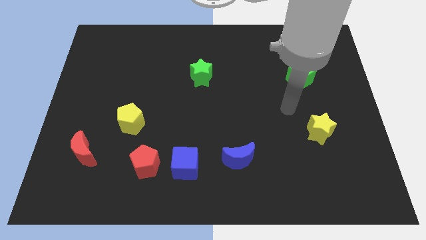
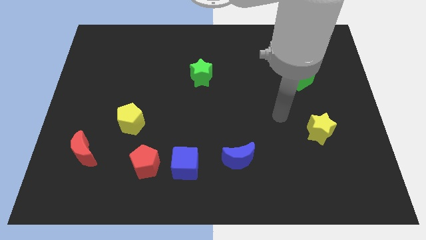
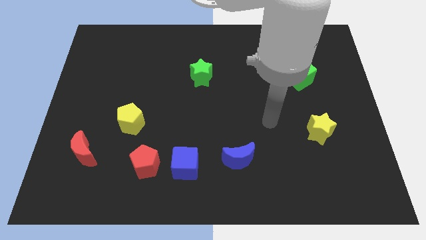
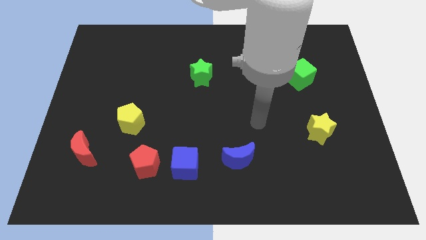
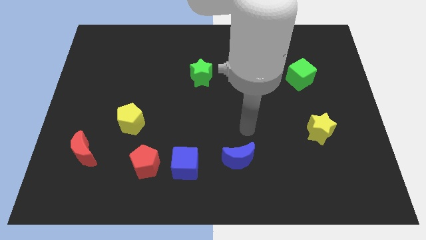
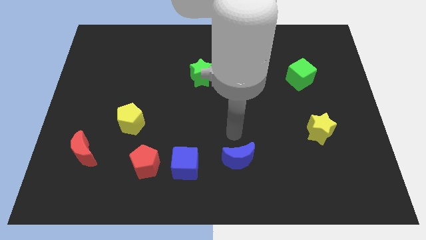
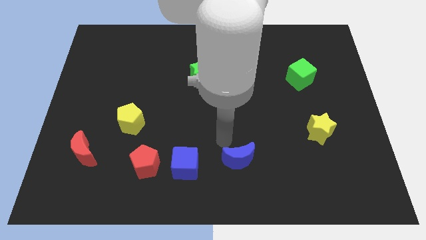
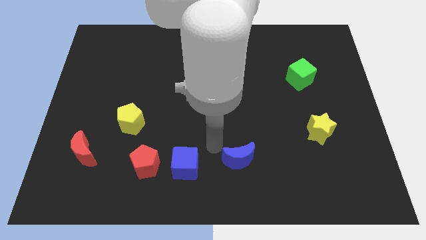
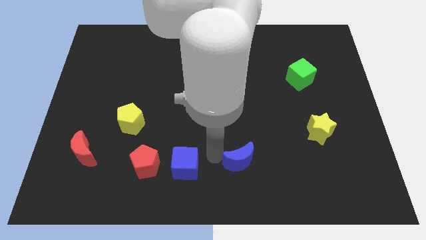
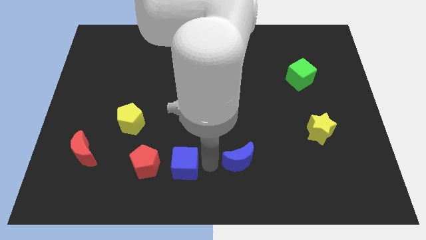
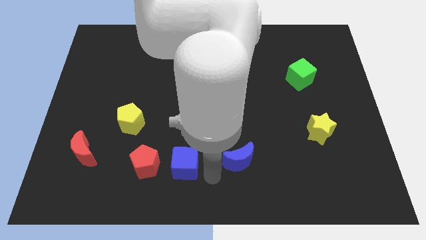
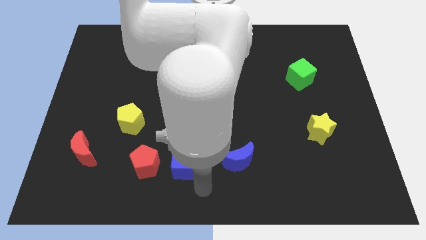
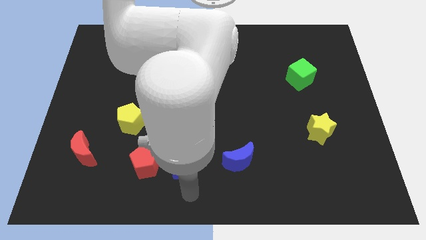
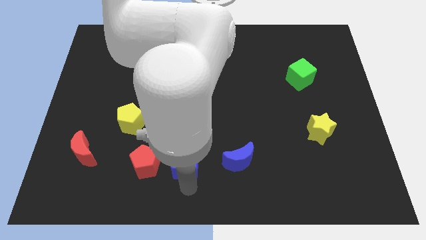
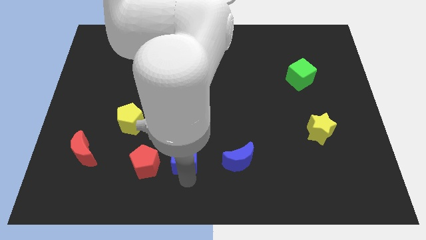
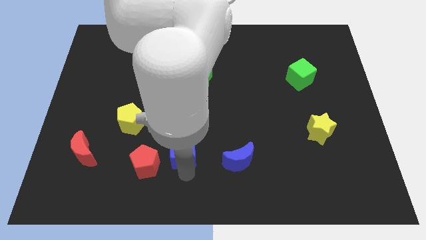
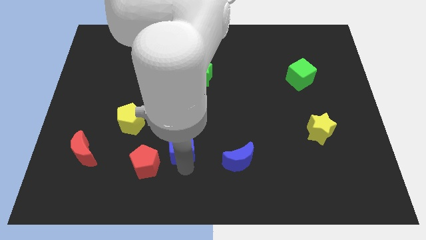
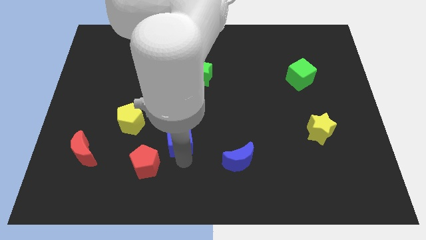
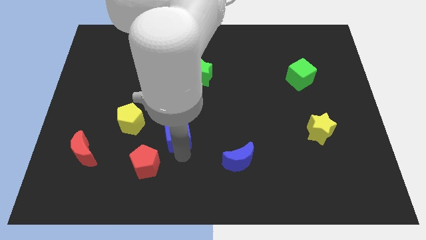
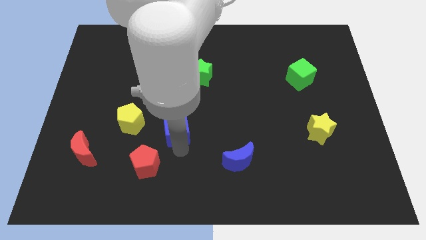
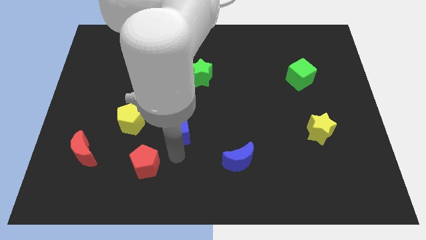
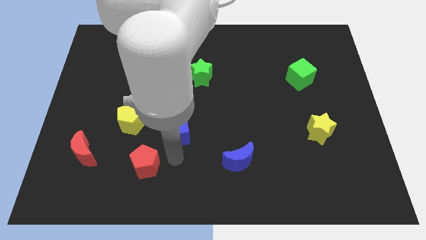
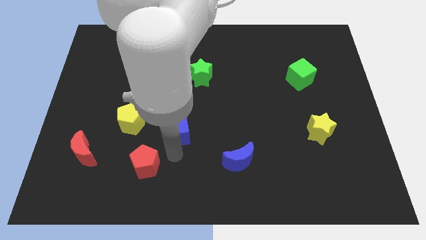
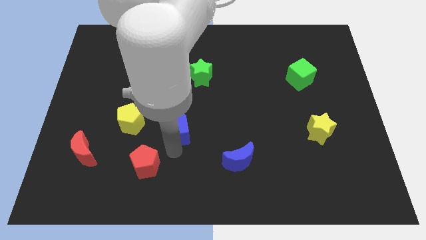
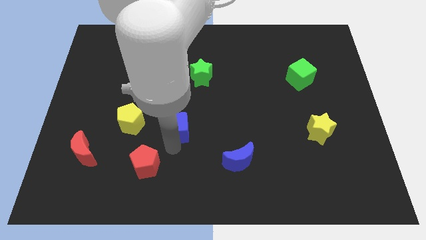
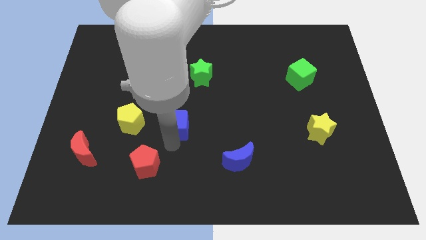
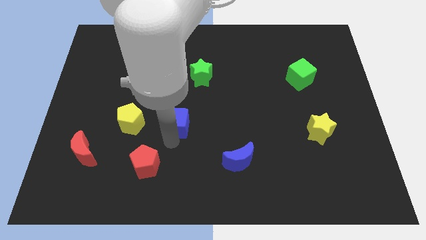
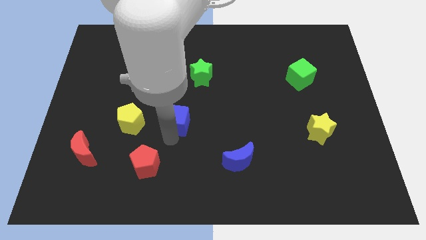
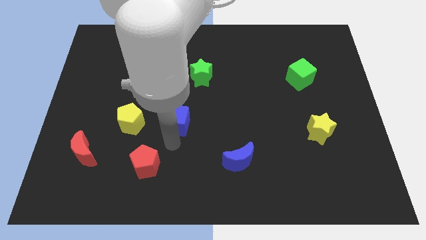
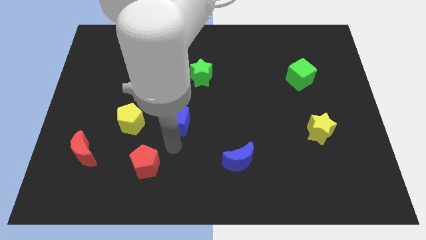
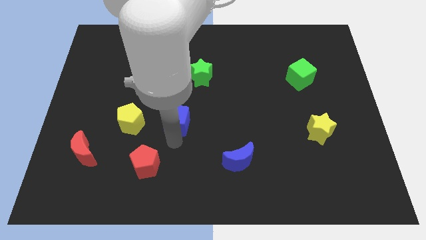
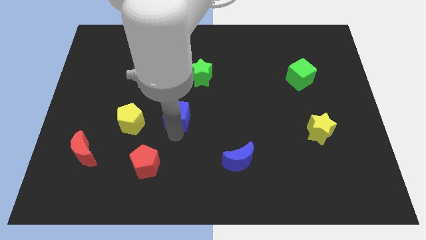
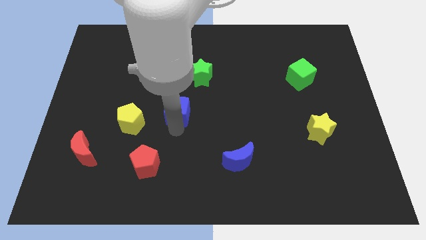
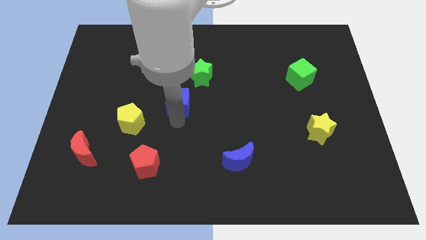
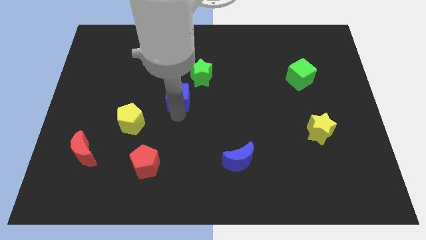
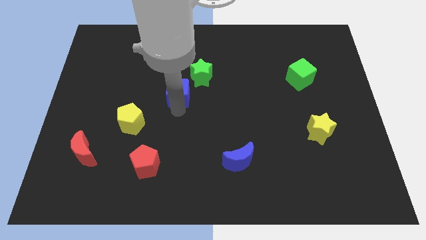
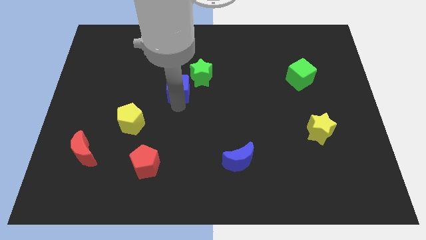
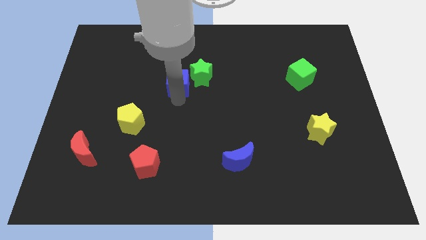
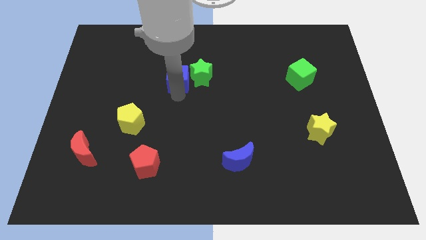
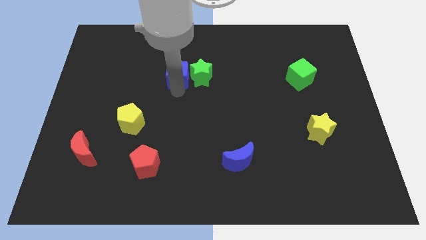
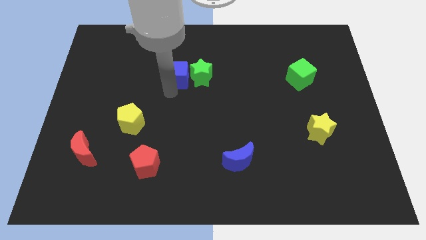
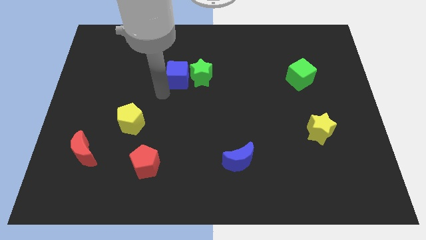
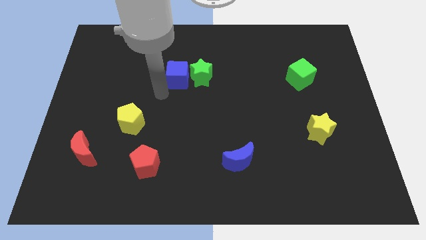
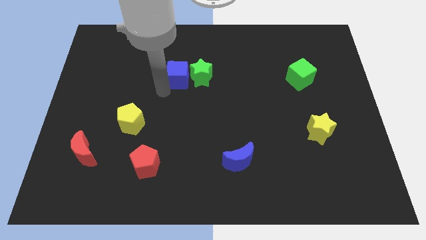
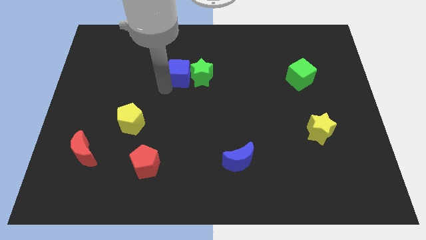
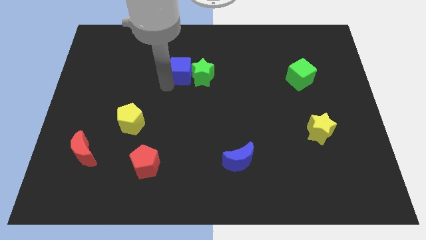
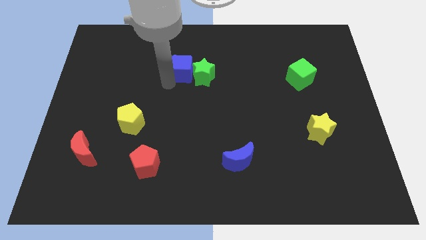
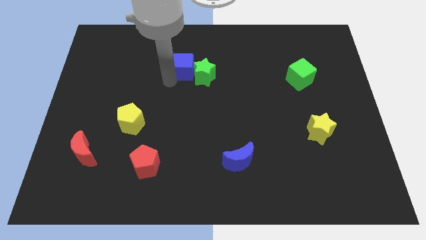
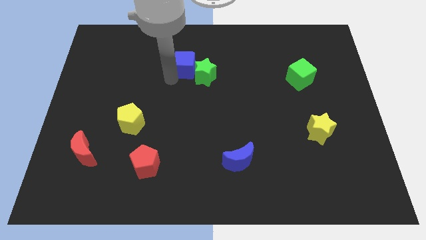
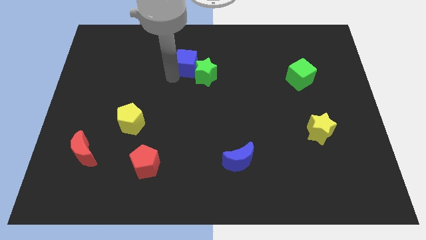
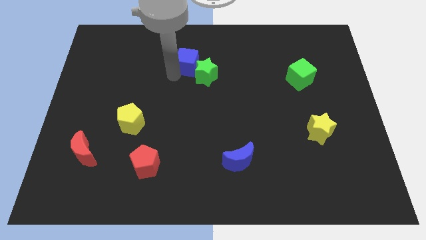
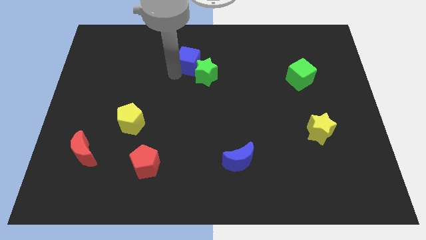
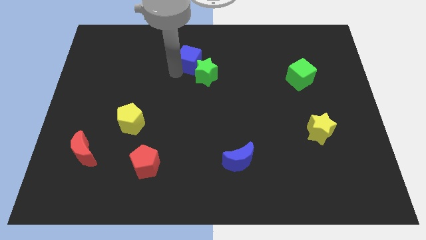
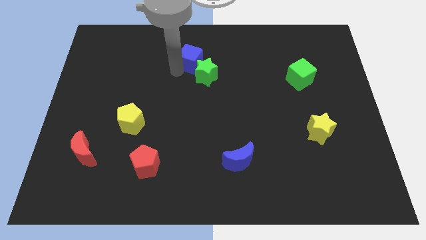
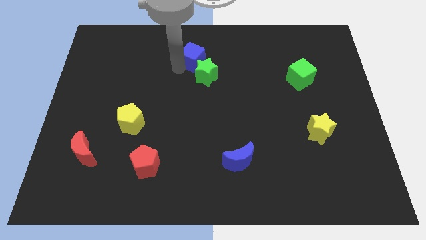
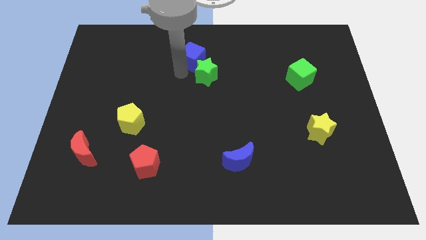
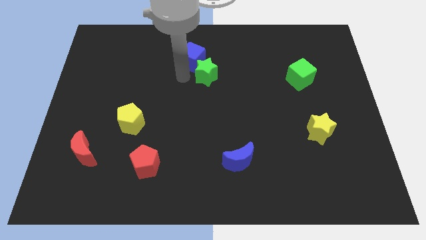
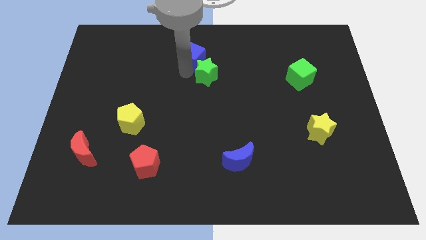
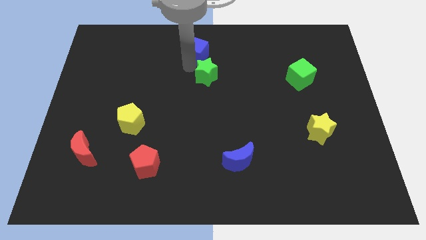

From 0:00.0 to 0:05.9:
slide the blue cube to the top side
